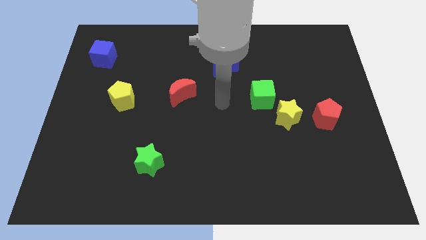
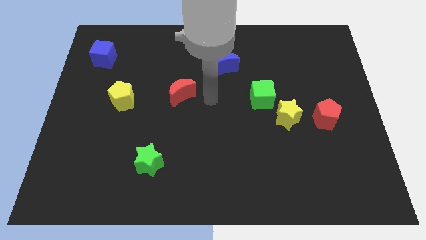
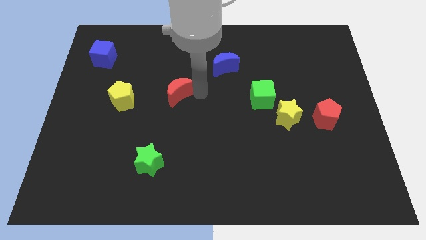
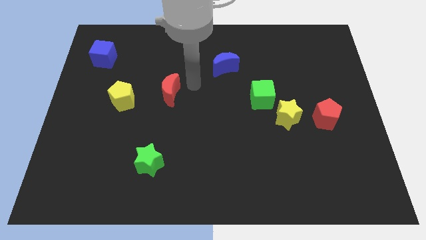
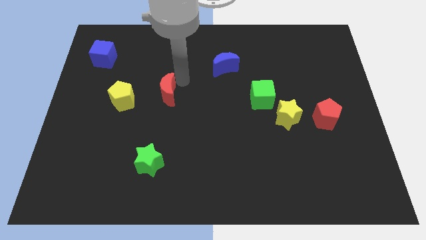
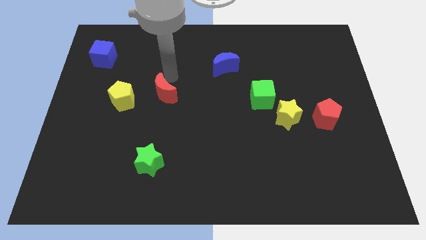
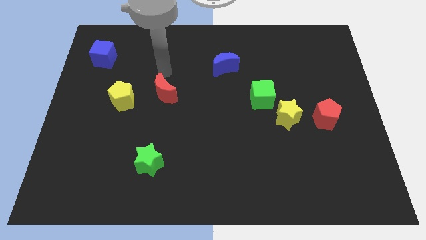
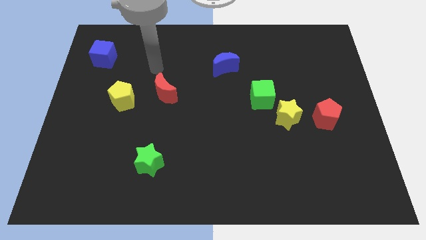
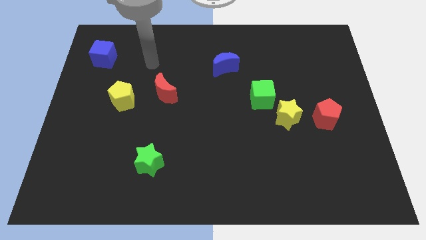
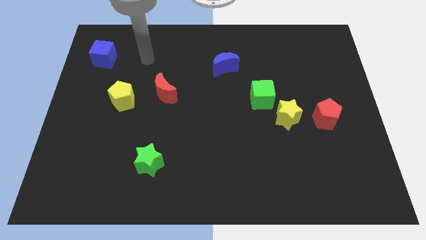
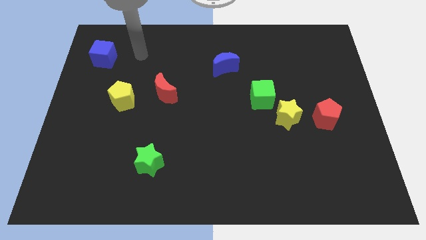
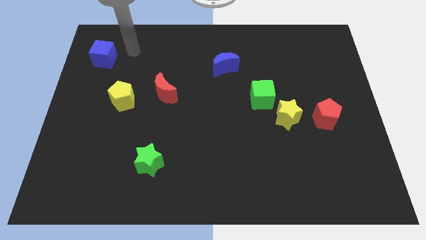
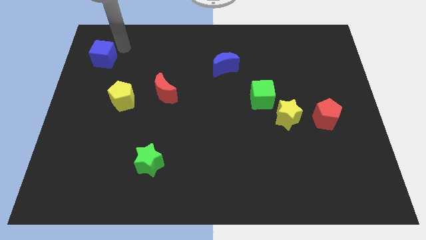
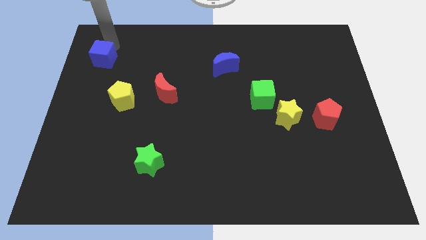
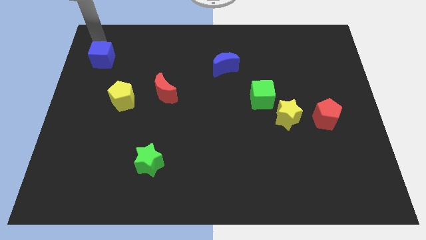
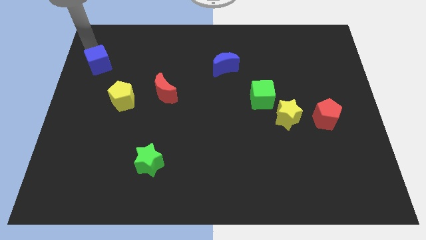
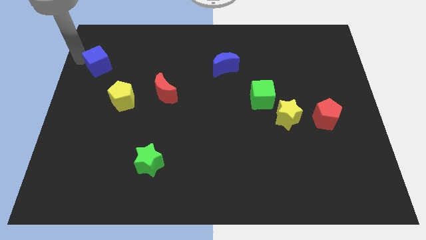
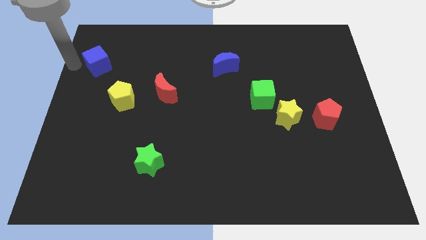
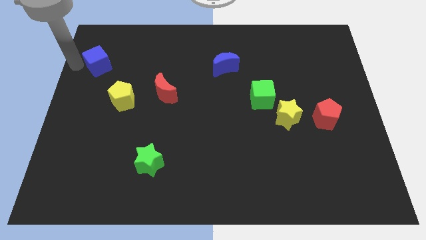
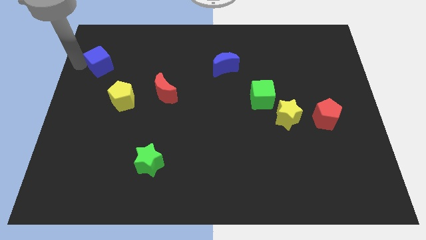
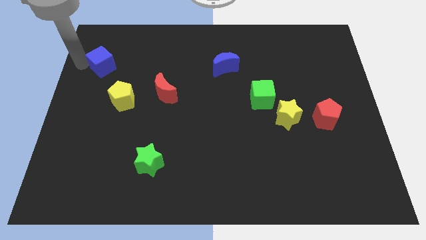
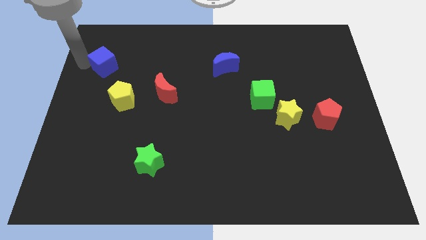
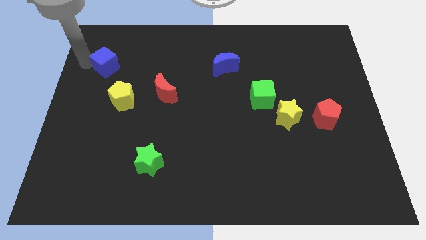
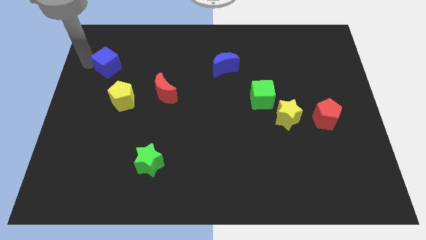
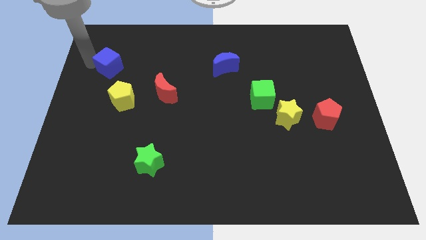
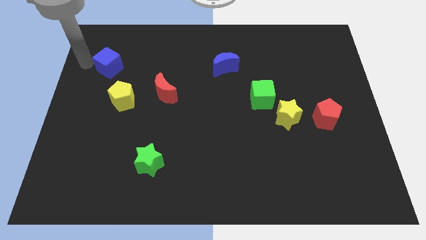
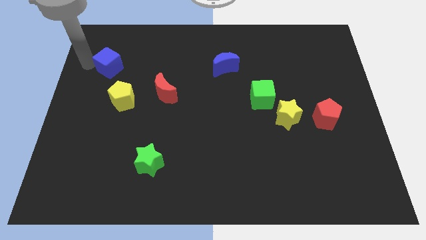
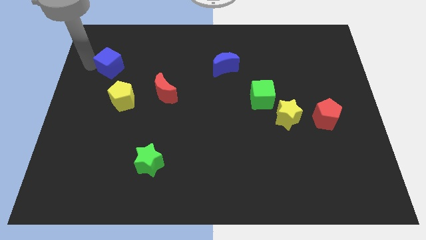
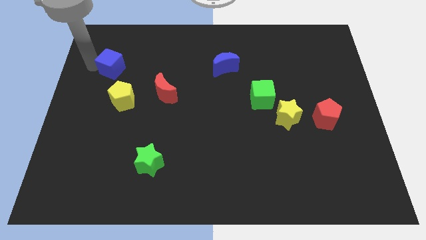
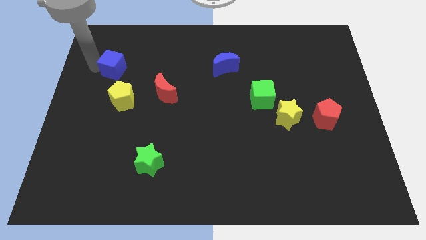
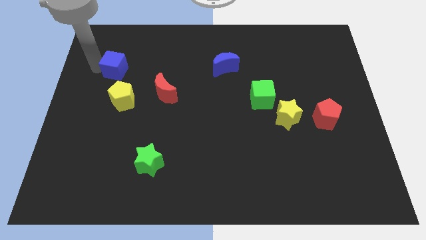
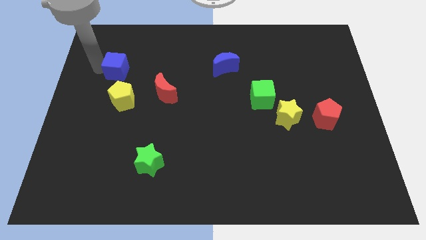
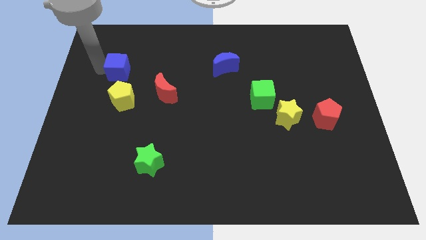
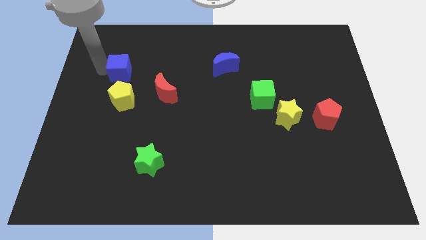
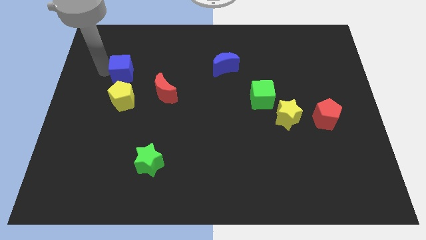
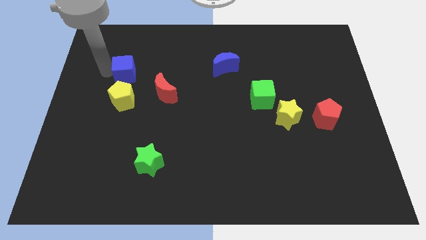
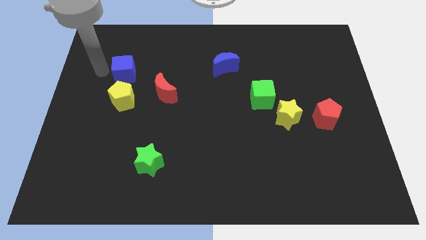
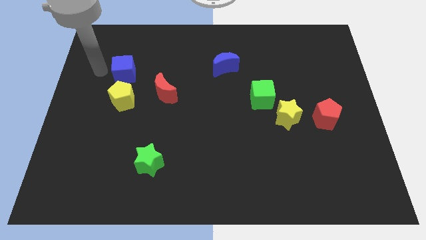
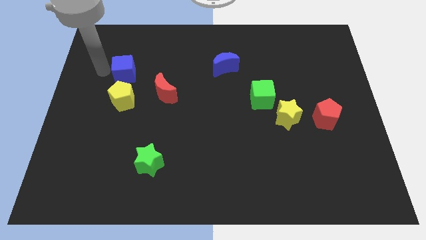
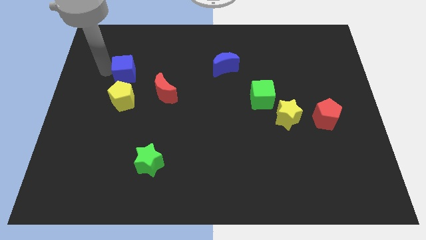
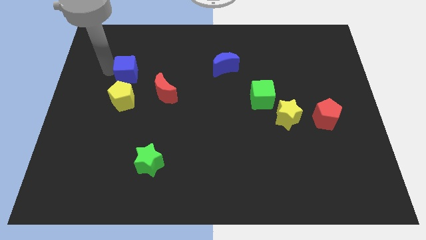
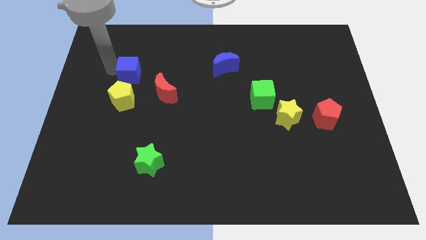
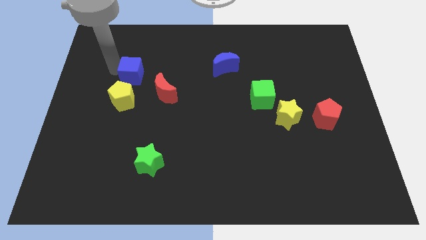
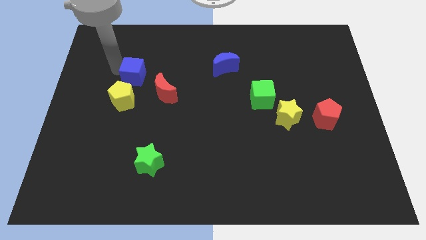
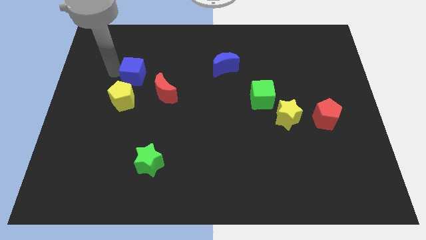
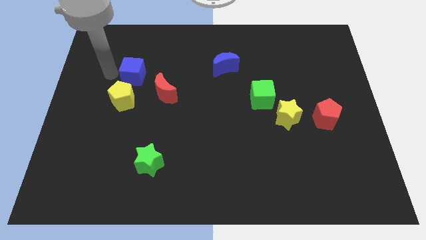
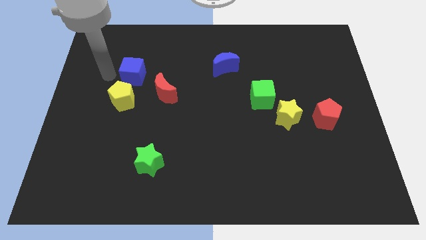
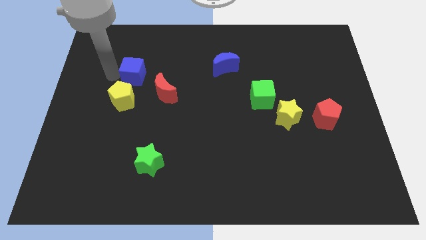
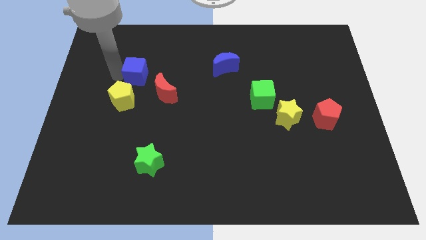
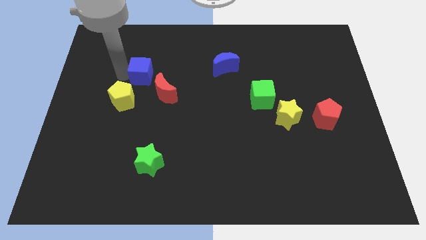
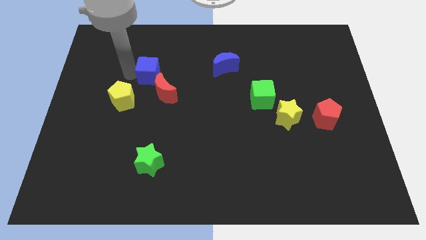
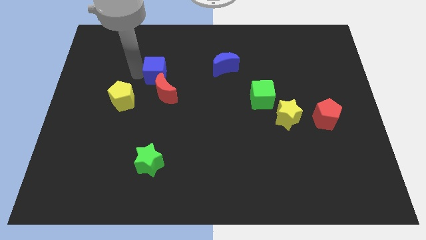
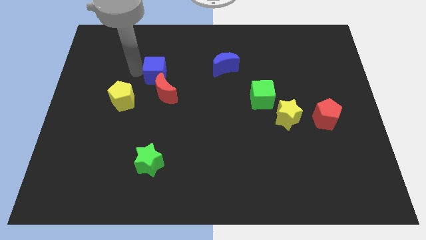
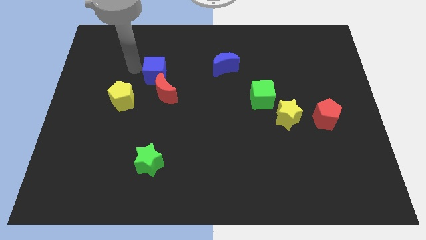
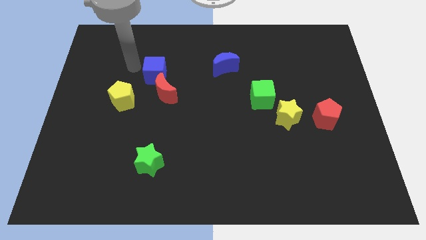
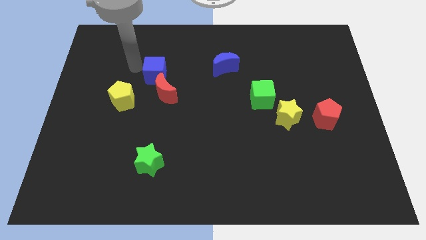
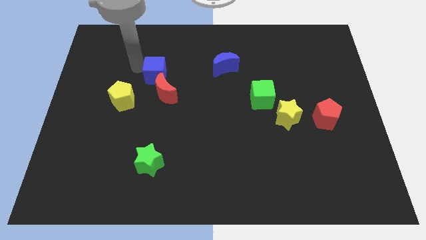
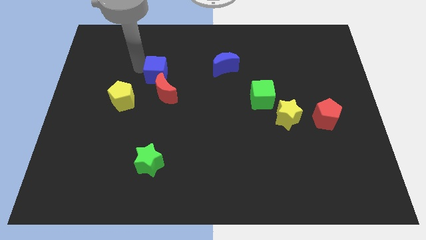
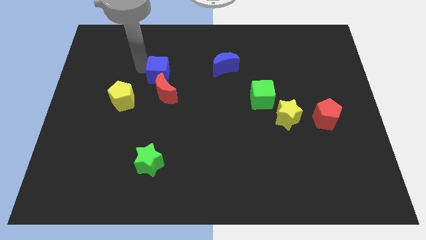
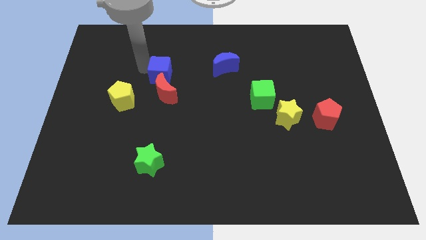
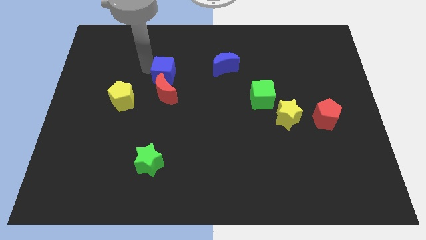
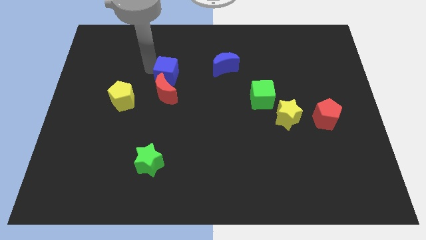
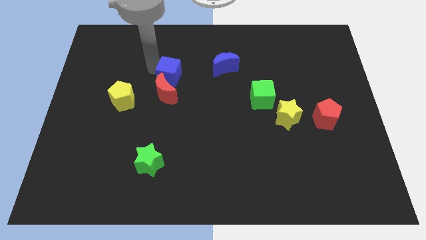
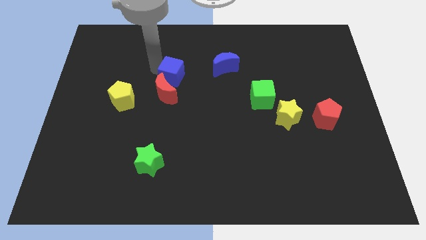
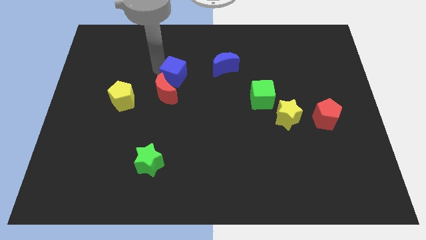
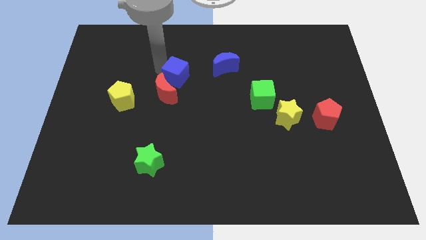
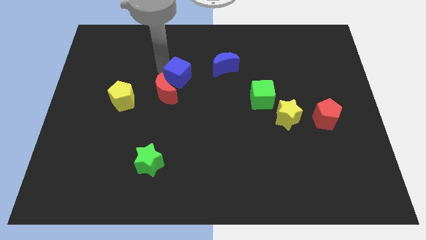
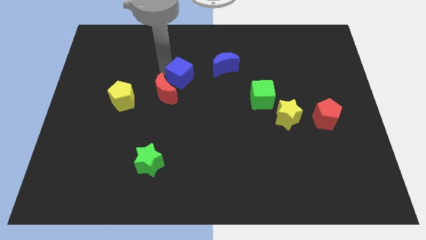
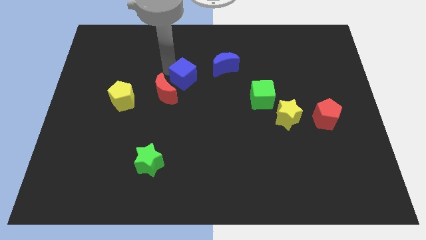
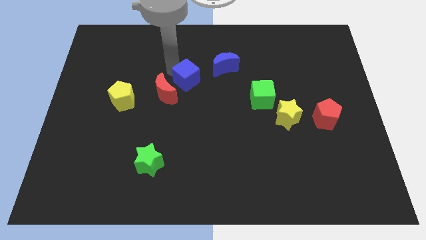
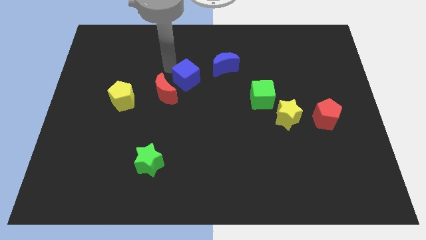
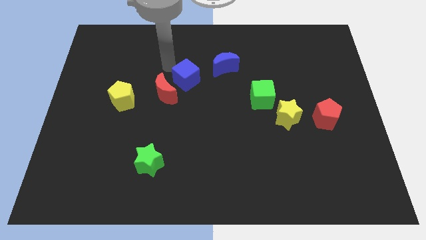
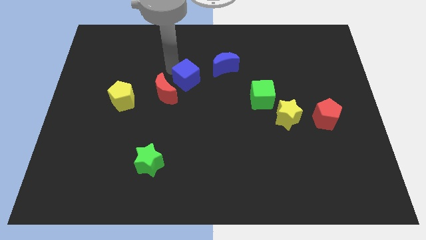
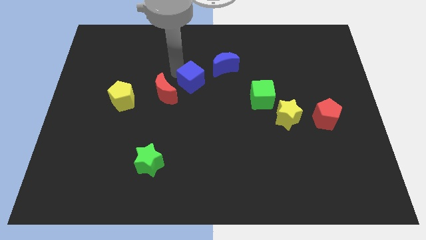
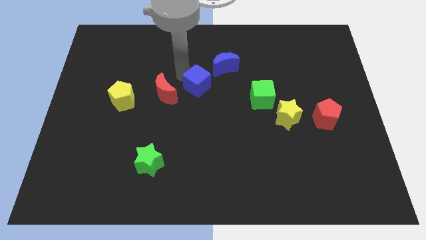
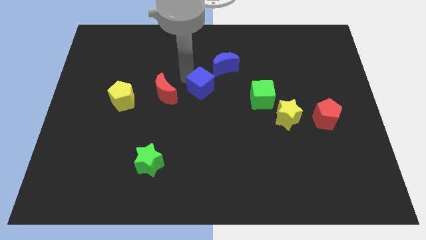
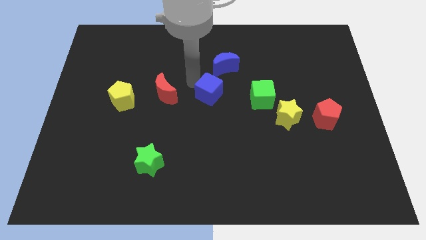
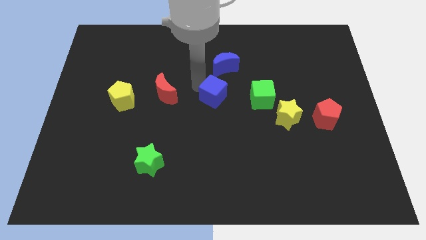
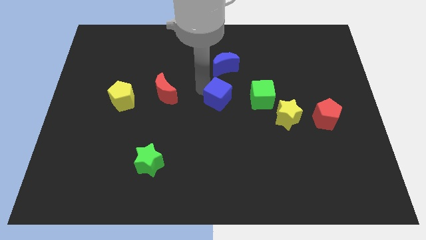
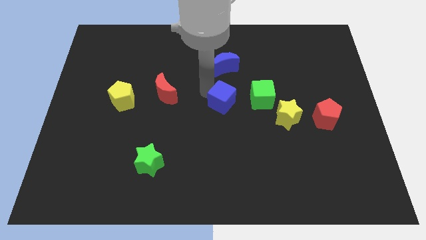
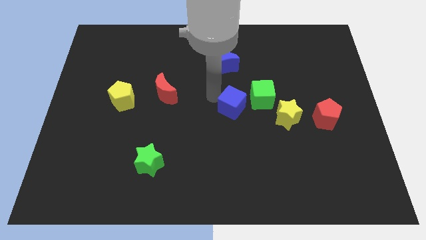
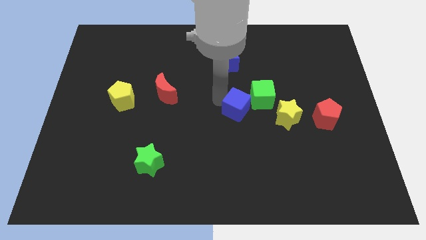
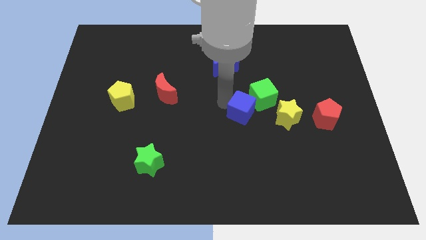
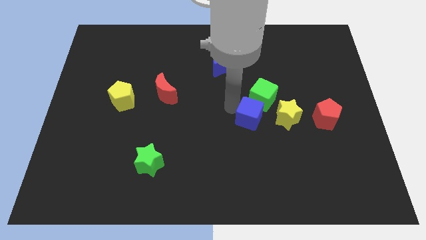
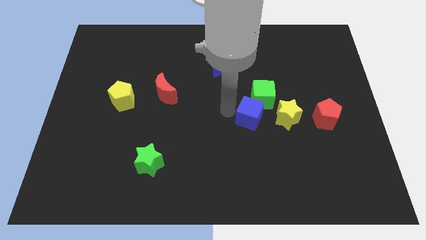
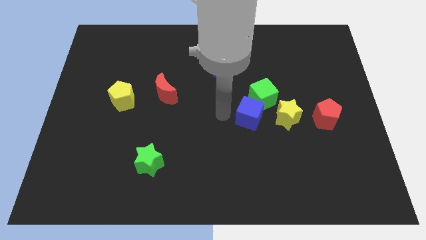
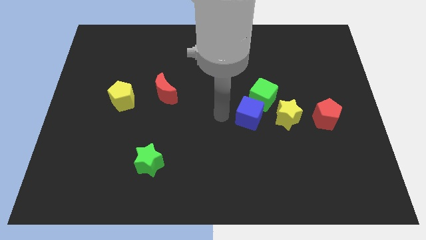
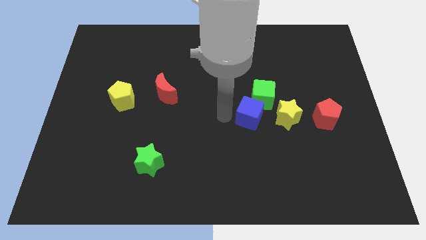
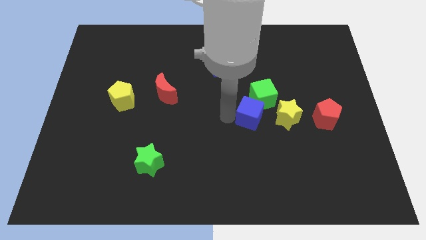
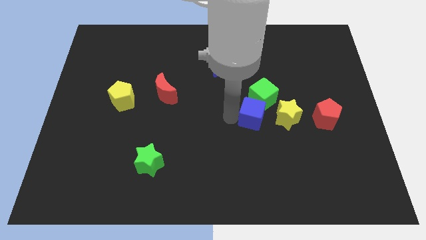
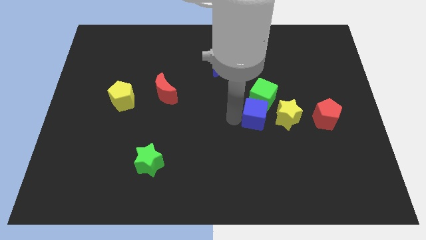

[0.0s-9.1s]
put the blue cube left of the red pentagon
